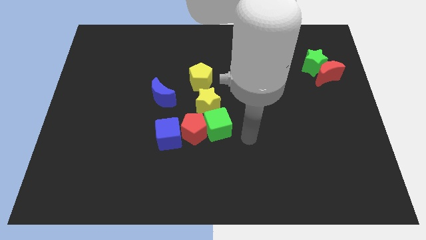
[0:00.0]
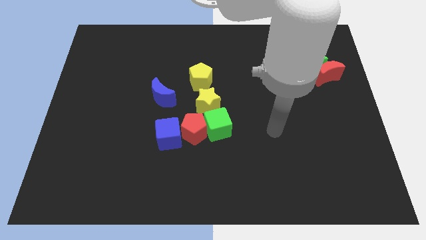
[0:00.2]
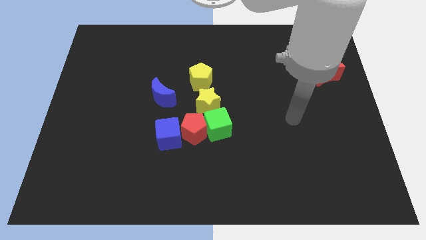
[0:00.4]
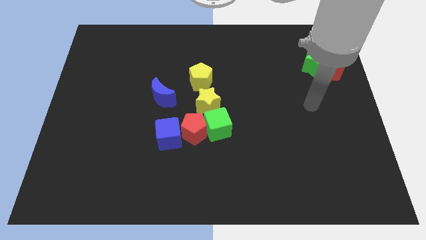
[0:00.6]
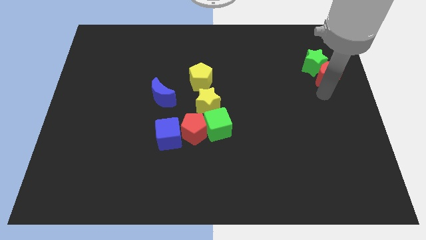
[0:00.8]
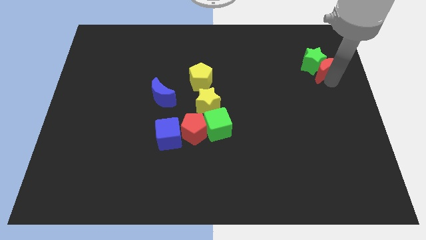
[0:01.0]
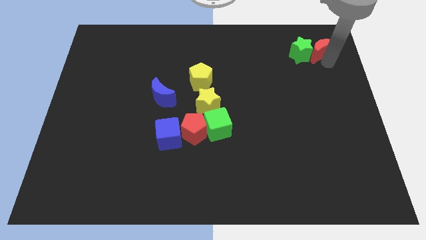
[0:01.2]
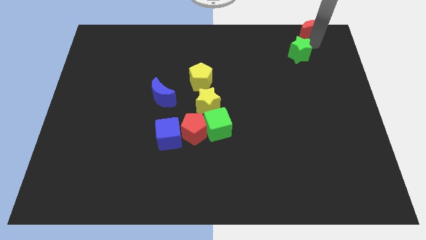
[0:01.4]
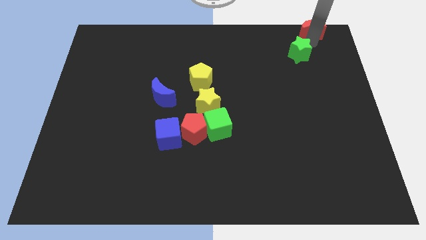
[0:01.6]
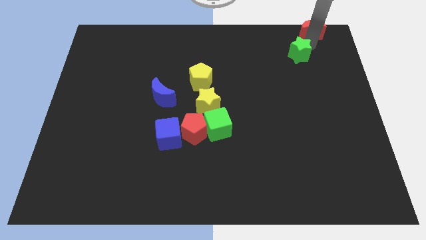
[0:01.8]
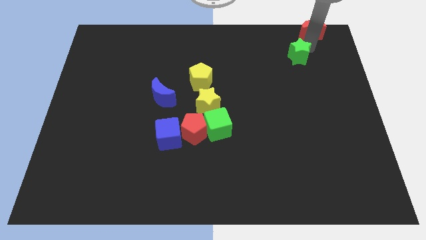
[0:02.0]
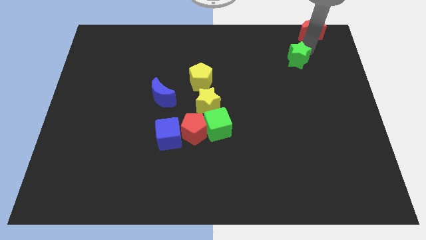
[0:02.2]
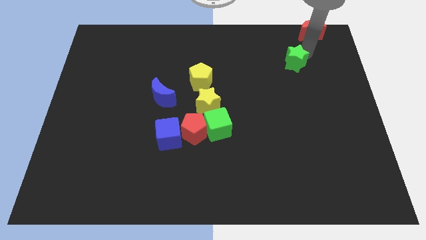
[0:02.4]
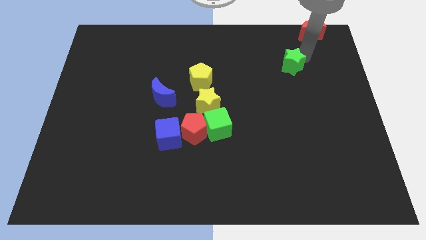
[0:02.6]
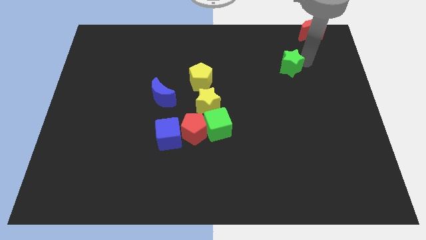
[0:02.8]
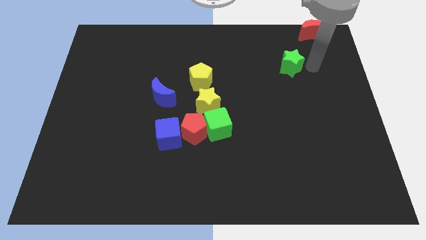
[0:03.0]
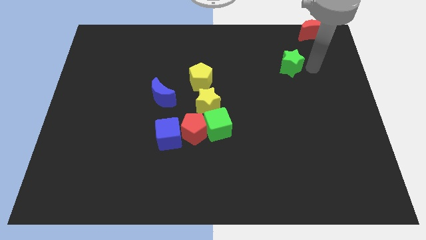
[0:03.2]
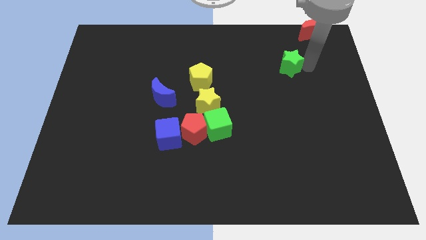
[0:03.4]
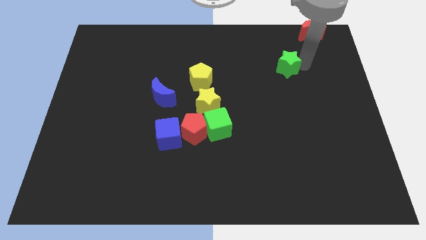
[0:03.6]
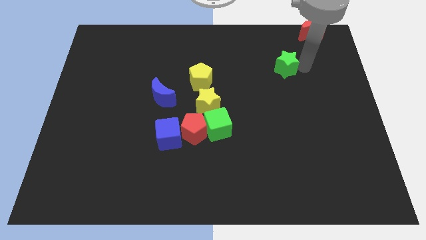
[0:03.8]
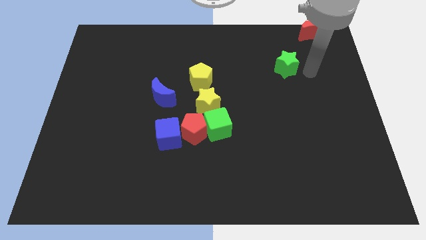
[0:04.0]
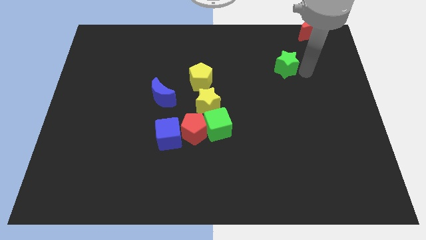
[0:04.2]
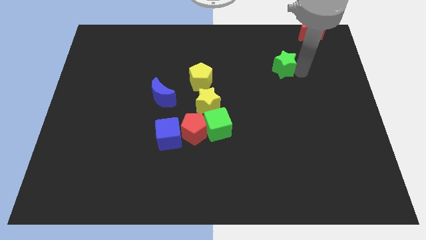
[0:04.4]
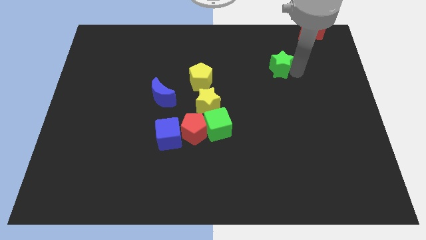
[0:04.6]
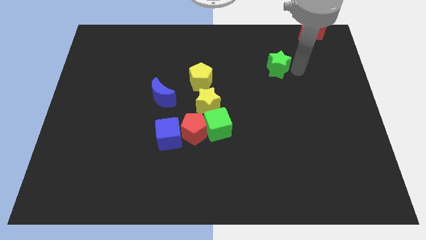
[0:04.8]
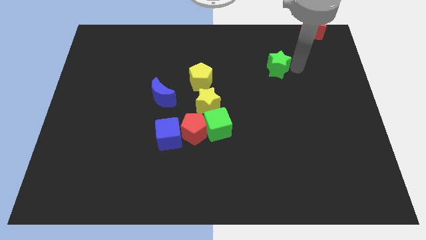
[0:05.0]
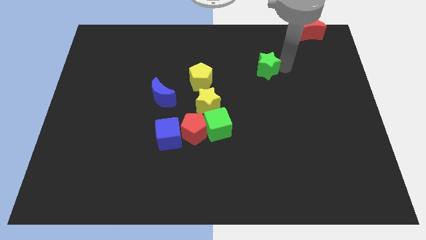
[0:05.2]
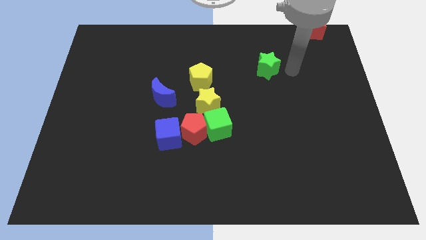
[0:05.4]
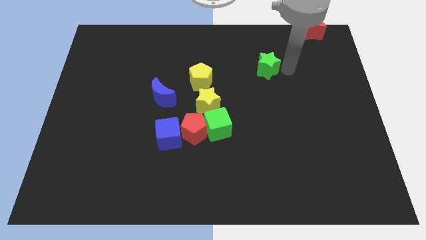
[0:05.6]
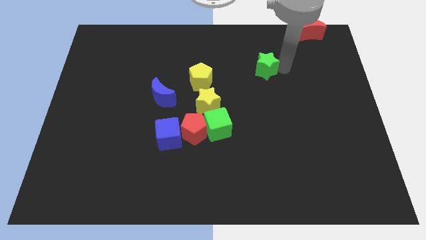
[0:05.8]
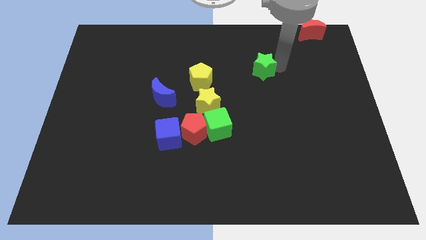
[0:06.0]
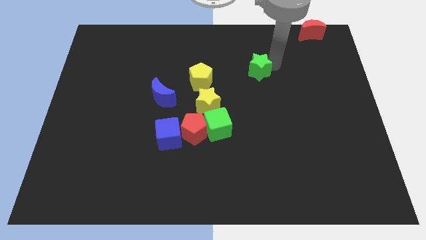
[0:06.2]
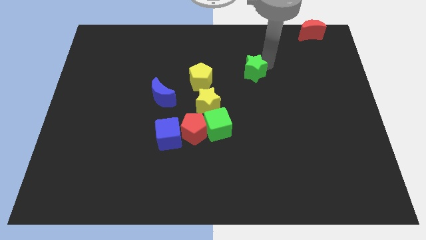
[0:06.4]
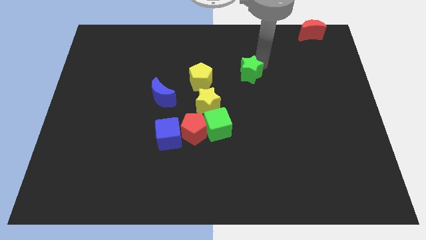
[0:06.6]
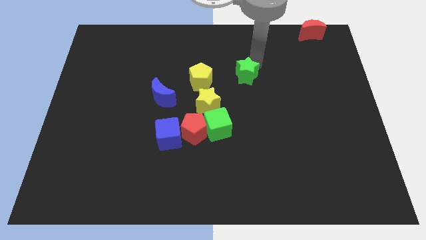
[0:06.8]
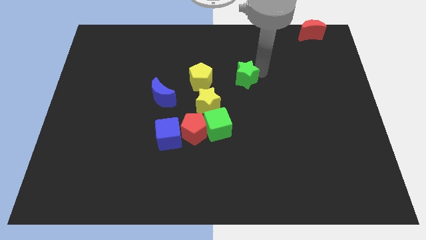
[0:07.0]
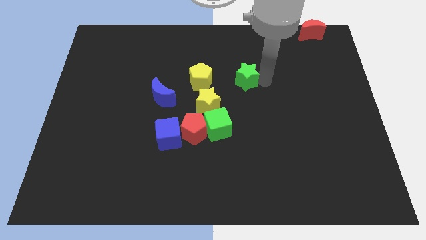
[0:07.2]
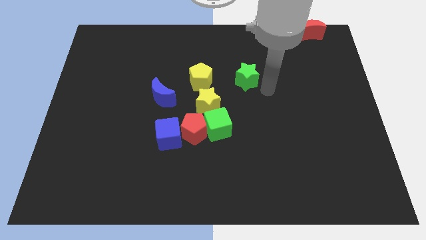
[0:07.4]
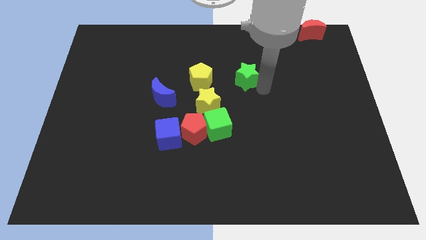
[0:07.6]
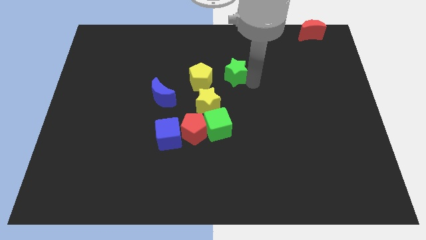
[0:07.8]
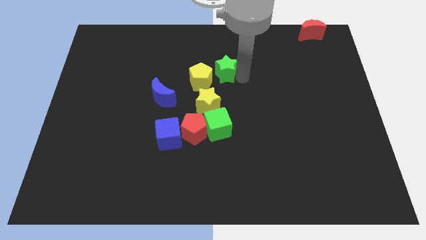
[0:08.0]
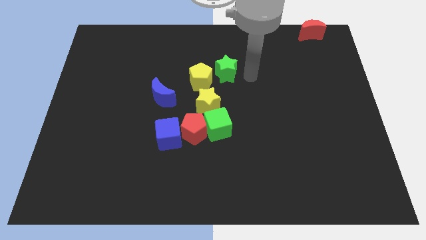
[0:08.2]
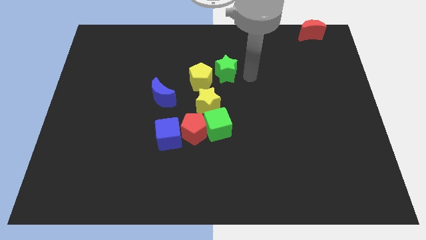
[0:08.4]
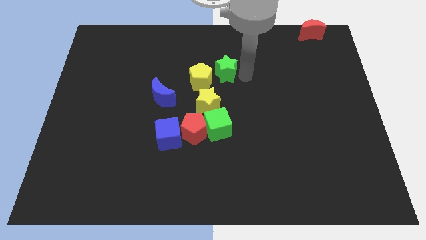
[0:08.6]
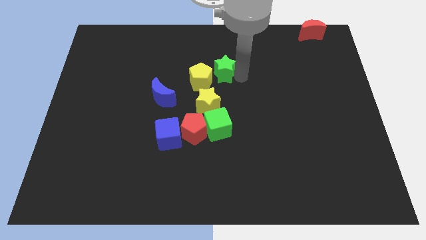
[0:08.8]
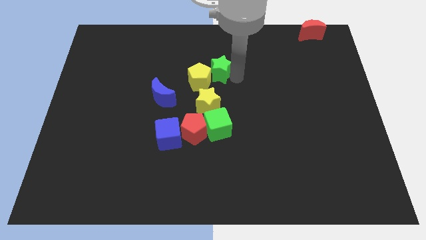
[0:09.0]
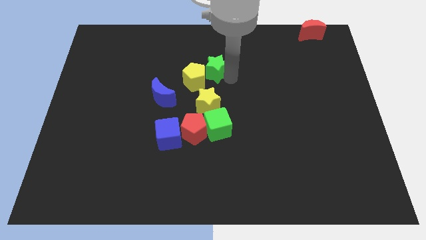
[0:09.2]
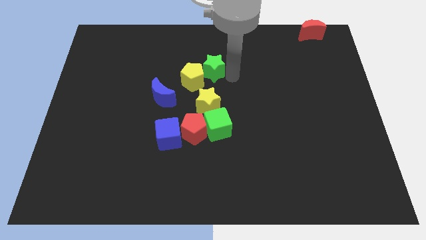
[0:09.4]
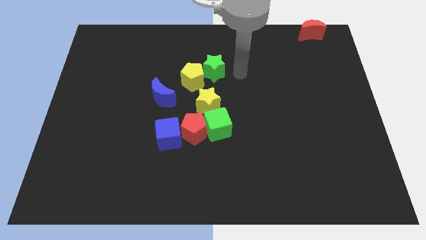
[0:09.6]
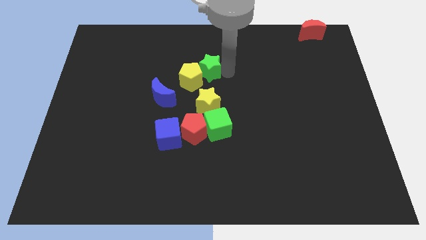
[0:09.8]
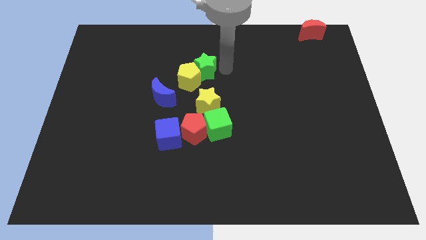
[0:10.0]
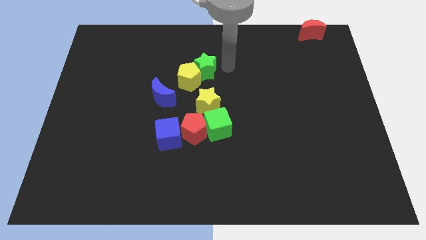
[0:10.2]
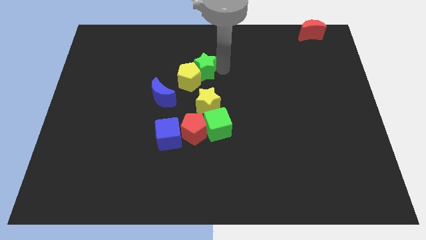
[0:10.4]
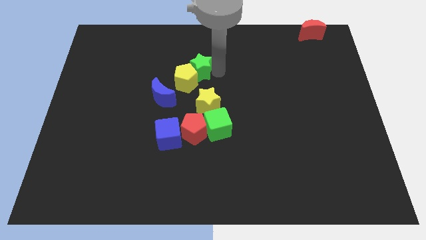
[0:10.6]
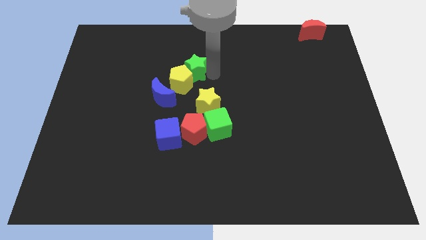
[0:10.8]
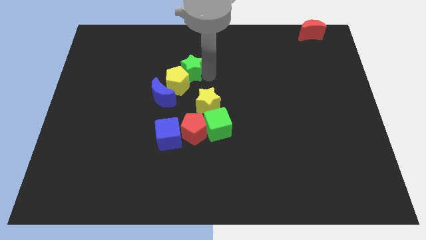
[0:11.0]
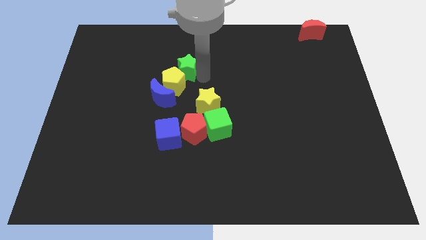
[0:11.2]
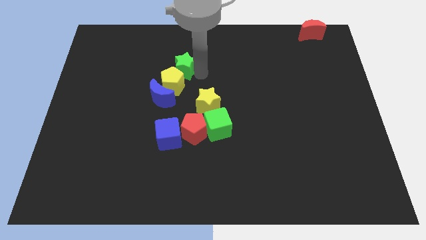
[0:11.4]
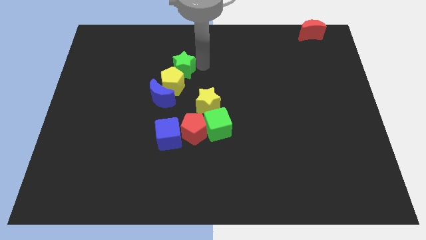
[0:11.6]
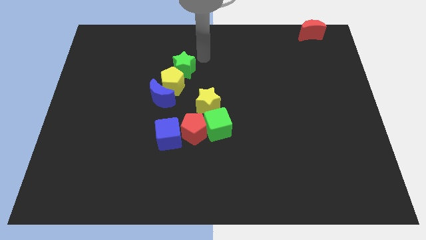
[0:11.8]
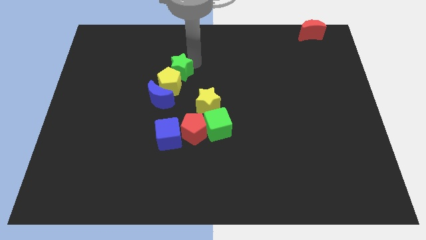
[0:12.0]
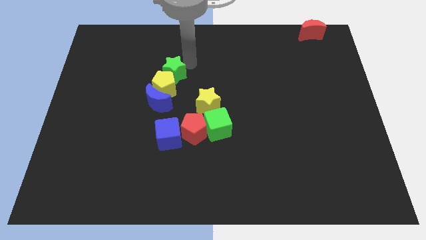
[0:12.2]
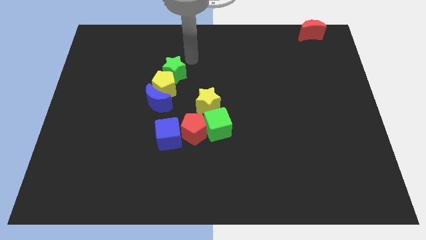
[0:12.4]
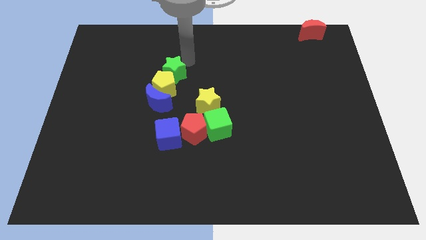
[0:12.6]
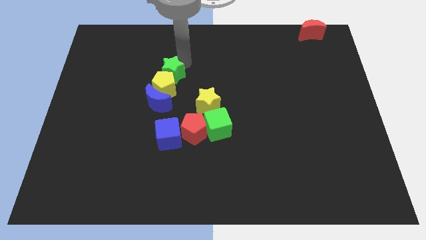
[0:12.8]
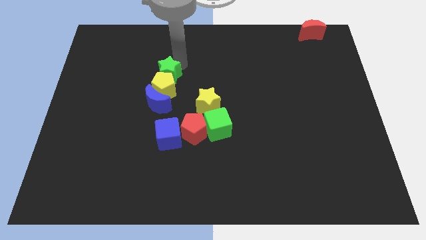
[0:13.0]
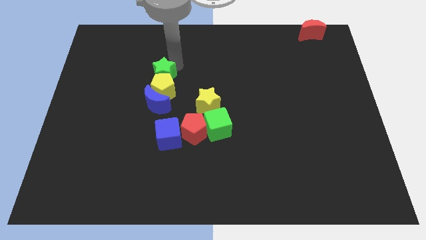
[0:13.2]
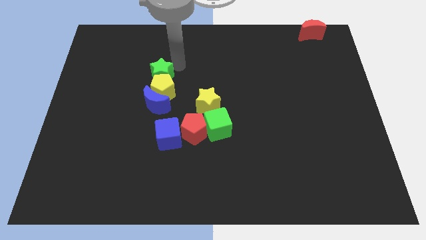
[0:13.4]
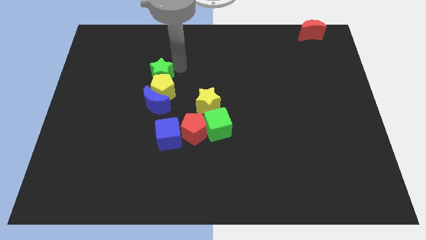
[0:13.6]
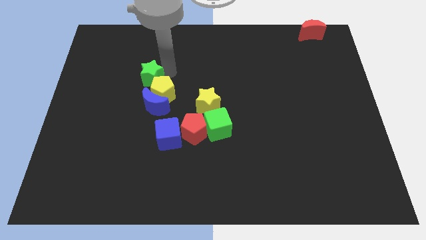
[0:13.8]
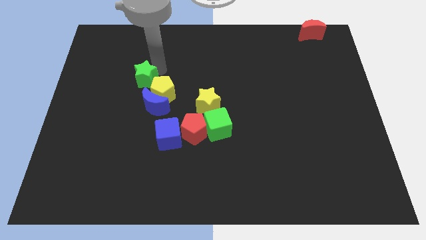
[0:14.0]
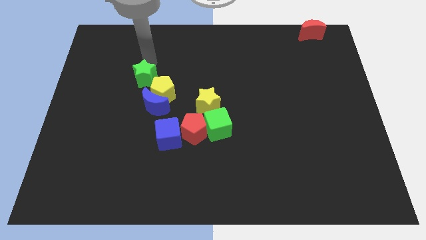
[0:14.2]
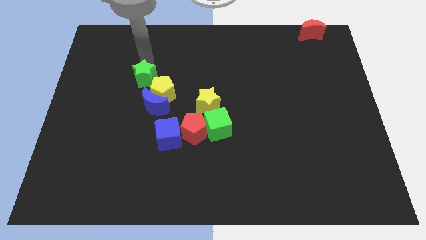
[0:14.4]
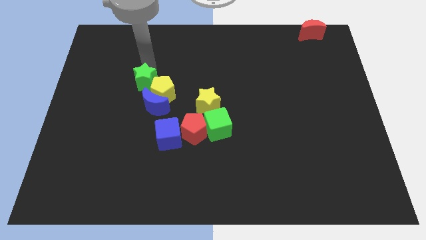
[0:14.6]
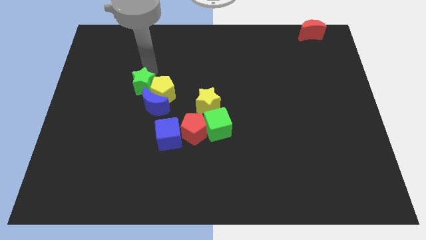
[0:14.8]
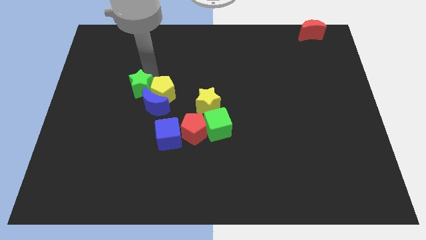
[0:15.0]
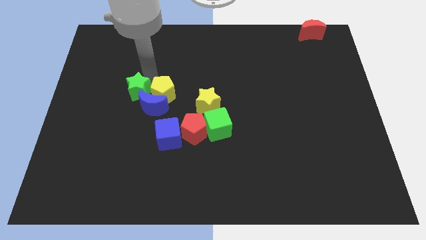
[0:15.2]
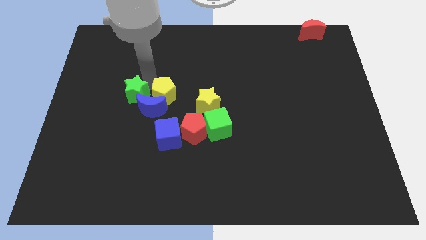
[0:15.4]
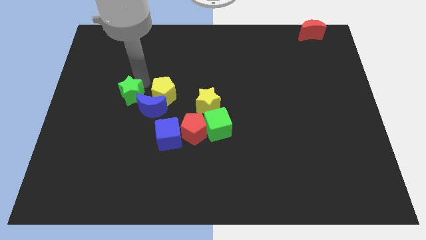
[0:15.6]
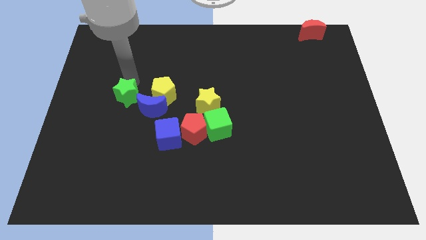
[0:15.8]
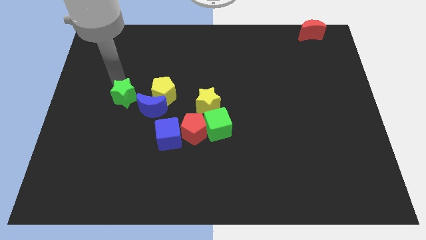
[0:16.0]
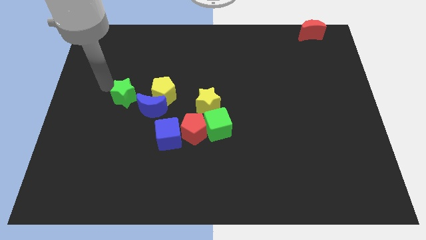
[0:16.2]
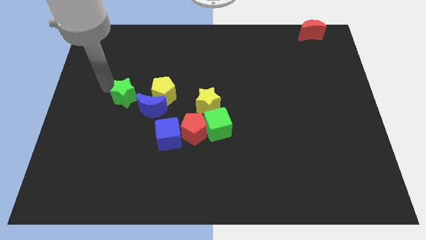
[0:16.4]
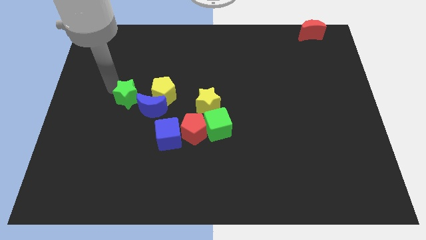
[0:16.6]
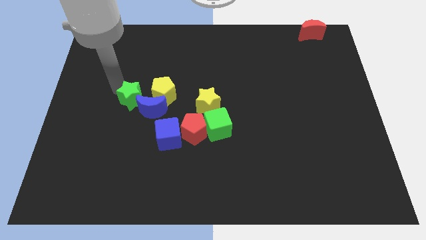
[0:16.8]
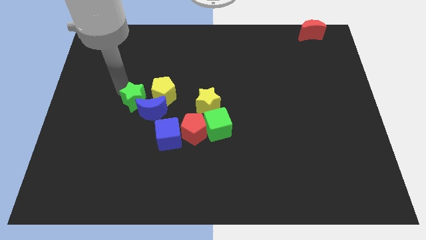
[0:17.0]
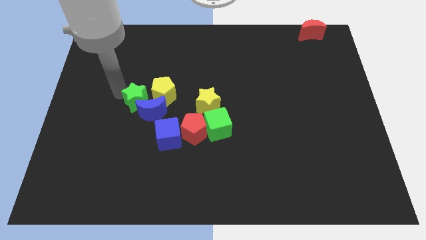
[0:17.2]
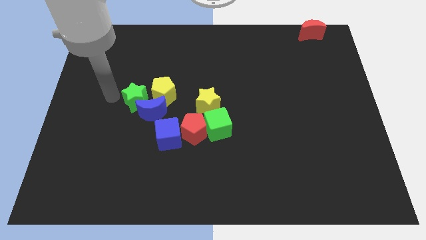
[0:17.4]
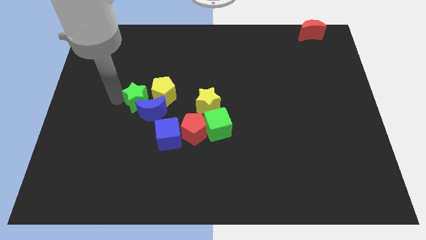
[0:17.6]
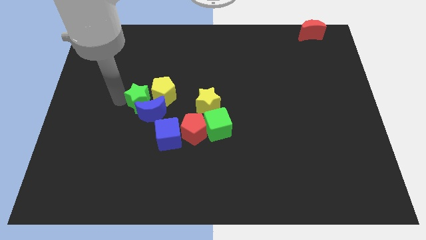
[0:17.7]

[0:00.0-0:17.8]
move the green star to the left side of the yellow star
